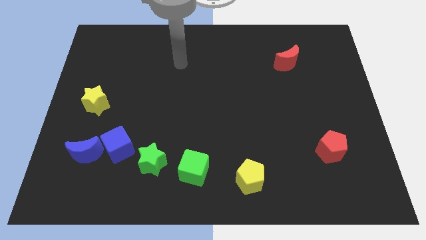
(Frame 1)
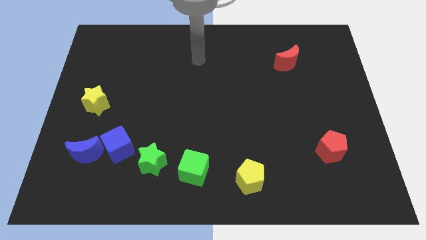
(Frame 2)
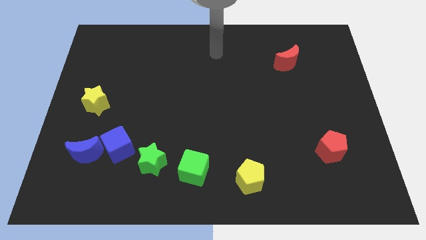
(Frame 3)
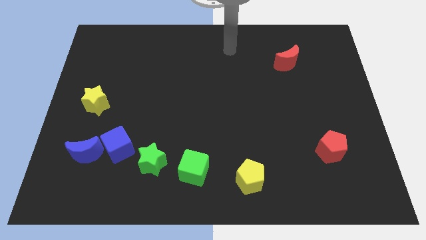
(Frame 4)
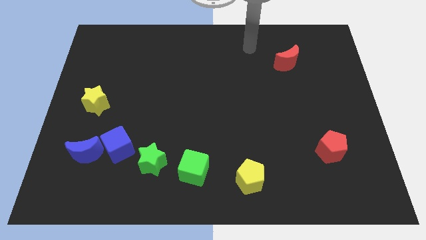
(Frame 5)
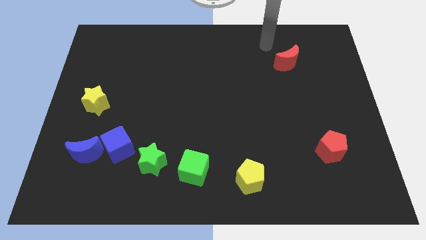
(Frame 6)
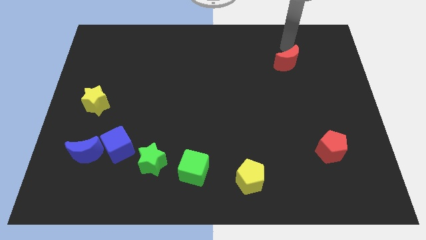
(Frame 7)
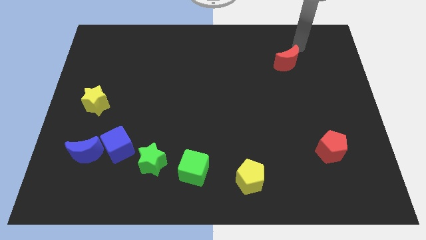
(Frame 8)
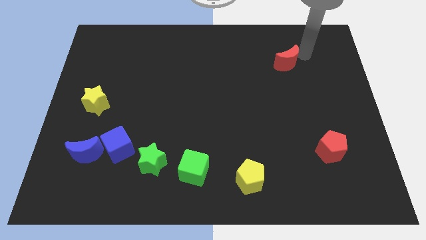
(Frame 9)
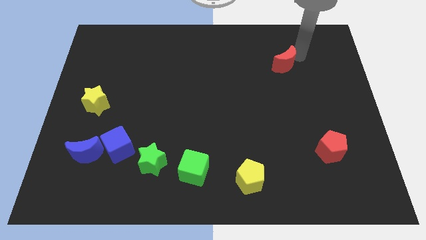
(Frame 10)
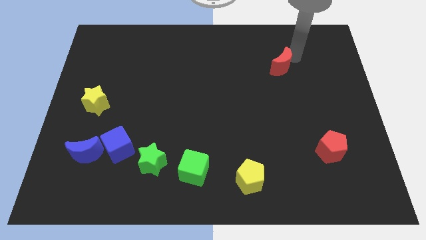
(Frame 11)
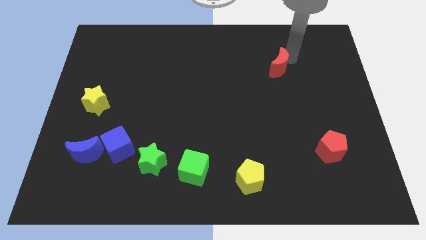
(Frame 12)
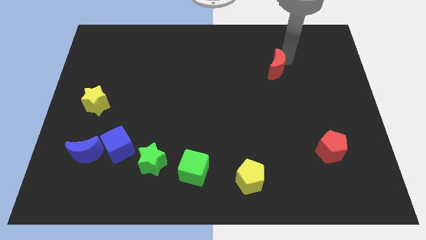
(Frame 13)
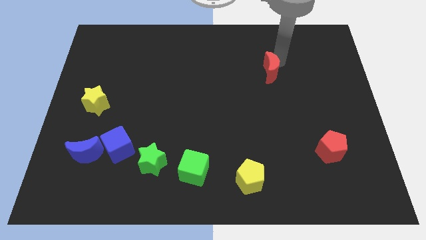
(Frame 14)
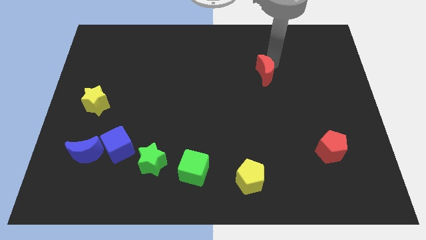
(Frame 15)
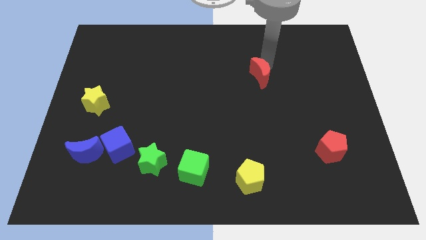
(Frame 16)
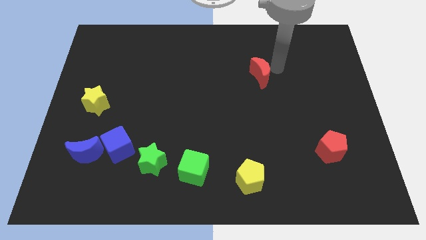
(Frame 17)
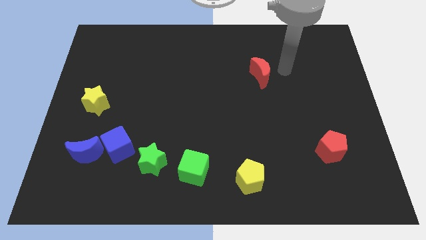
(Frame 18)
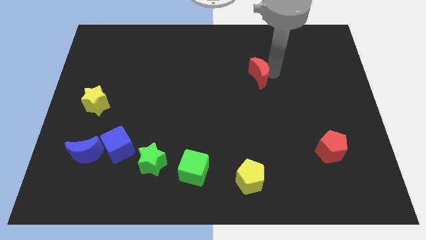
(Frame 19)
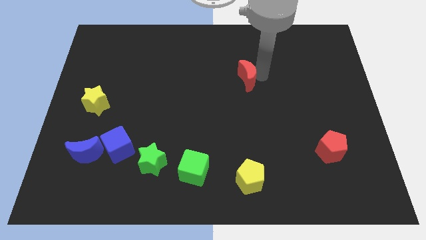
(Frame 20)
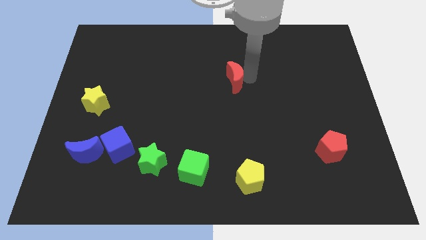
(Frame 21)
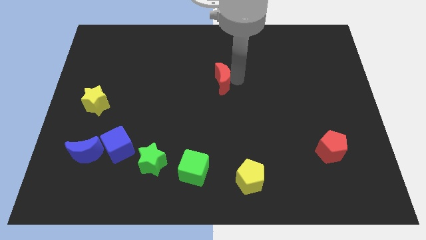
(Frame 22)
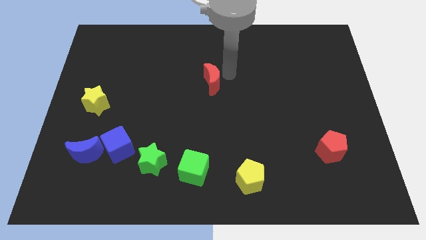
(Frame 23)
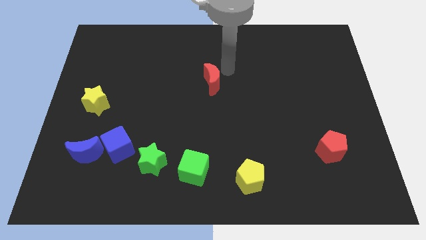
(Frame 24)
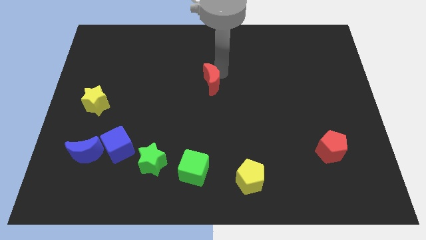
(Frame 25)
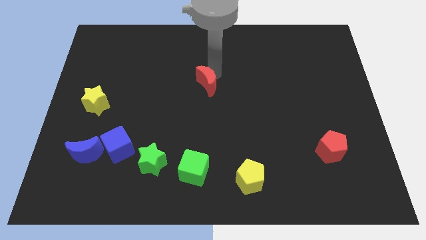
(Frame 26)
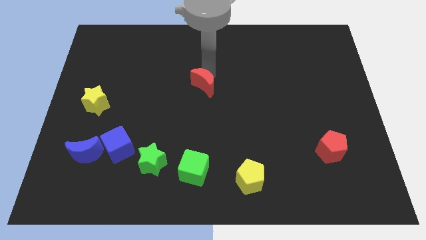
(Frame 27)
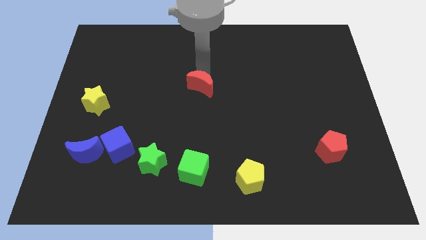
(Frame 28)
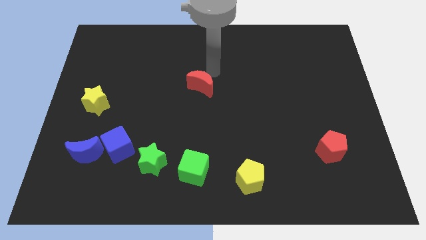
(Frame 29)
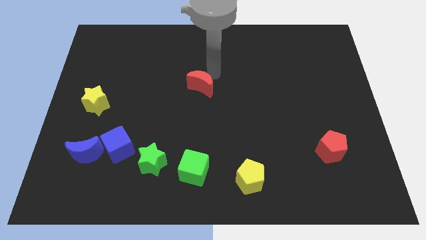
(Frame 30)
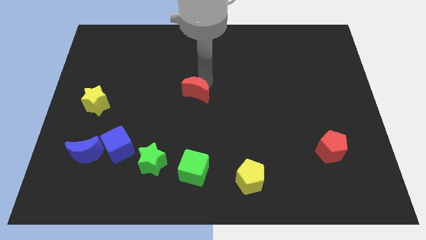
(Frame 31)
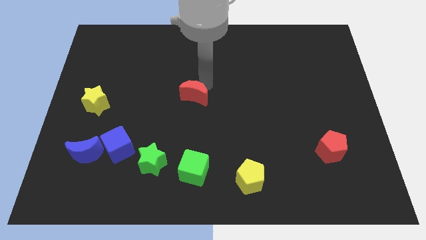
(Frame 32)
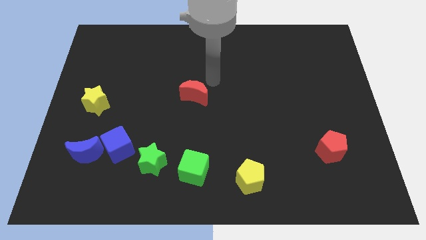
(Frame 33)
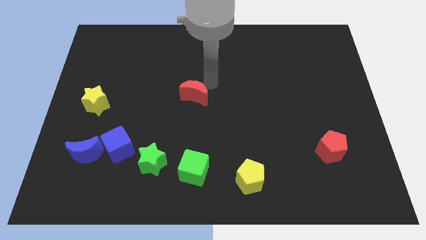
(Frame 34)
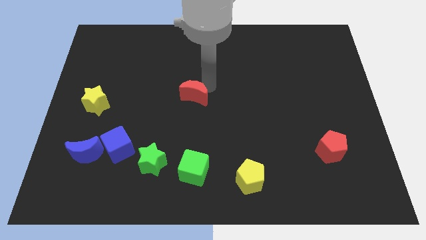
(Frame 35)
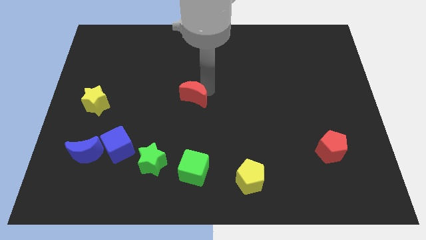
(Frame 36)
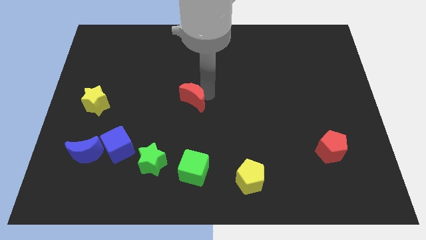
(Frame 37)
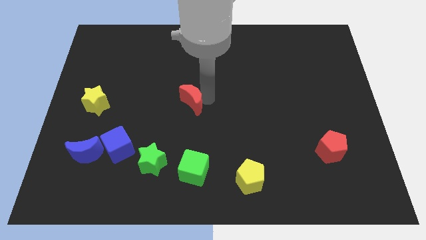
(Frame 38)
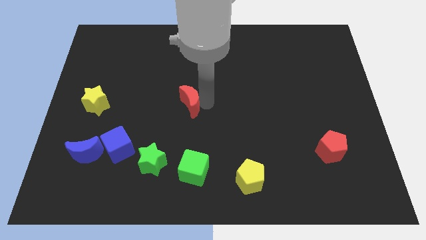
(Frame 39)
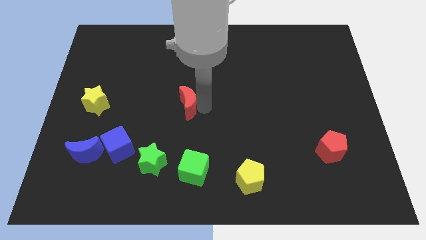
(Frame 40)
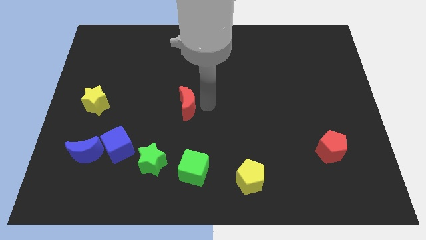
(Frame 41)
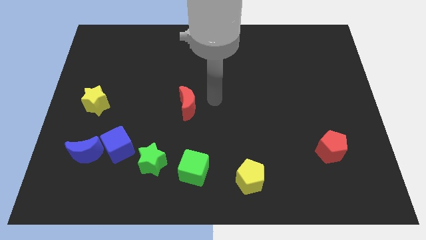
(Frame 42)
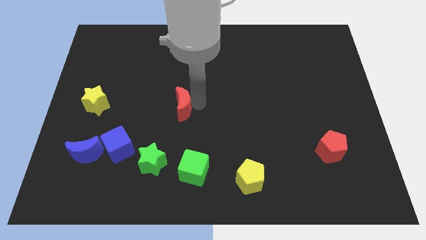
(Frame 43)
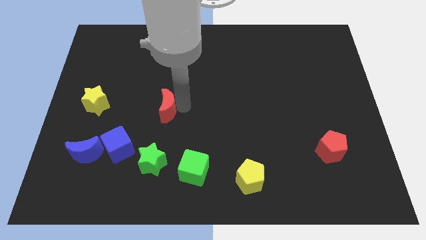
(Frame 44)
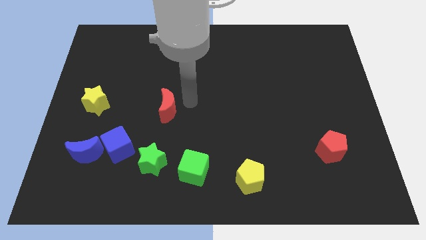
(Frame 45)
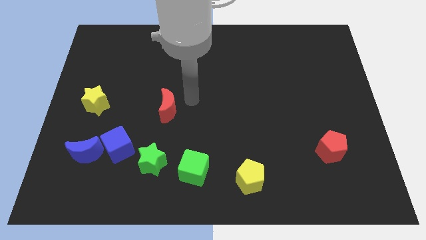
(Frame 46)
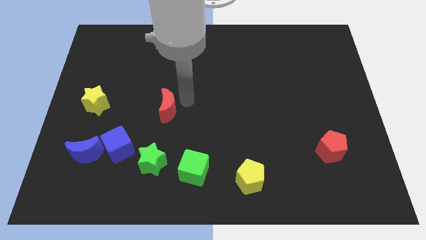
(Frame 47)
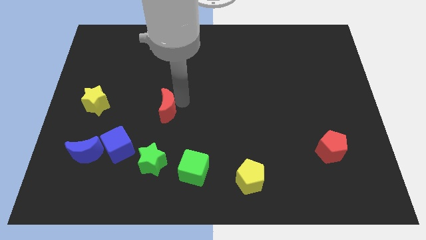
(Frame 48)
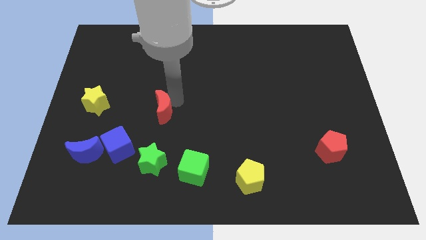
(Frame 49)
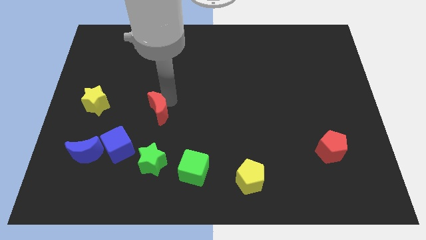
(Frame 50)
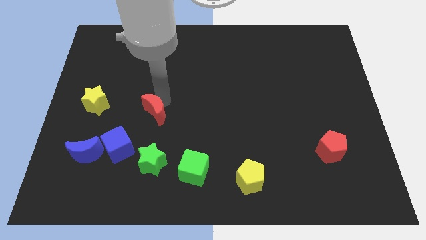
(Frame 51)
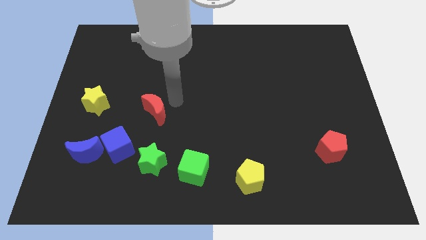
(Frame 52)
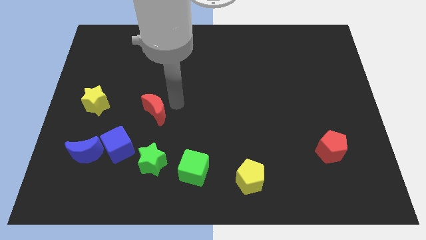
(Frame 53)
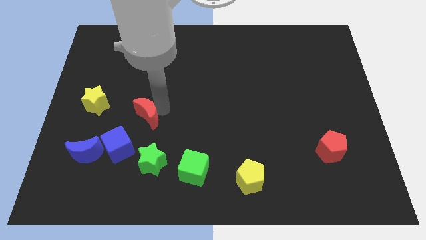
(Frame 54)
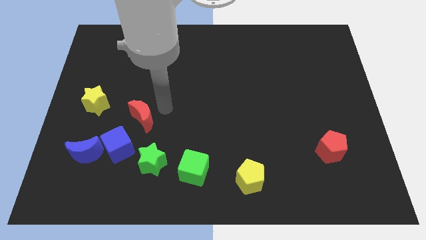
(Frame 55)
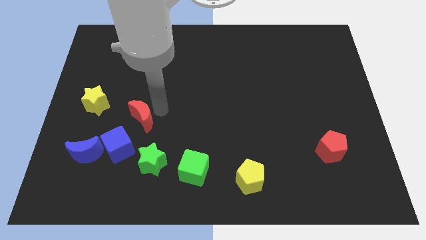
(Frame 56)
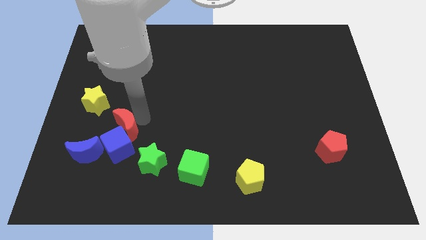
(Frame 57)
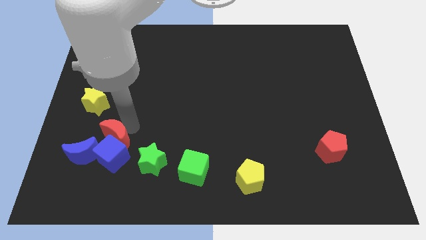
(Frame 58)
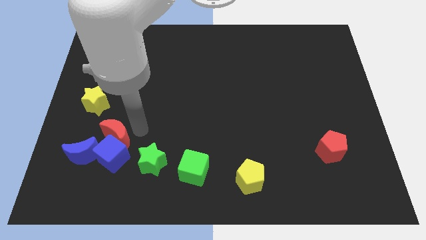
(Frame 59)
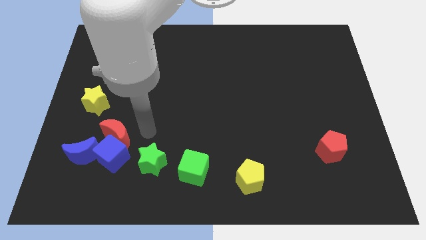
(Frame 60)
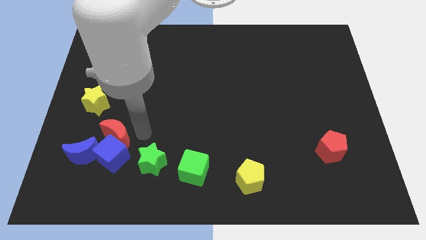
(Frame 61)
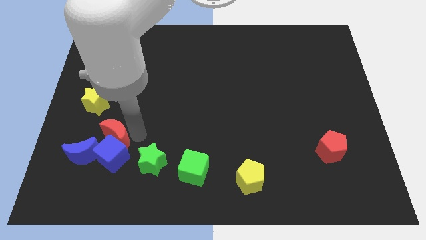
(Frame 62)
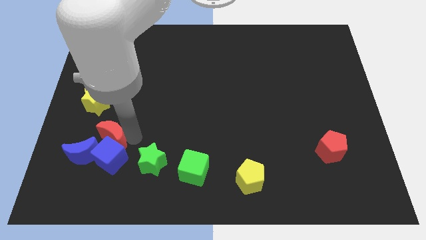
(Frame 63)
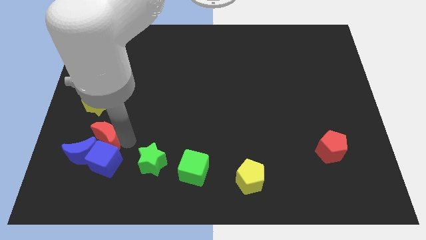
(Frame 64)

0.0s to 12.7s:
put the red moon close to the blue moon

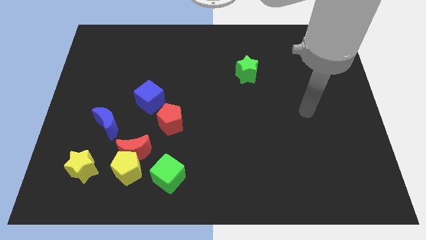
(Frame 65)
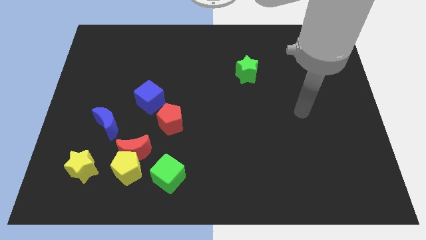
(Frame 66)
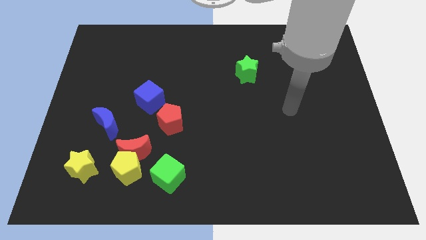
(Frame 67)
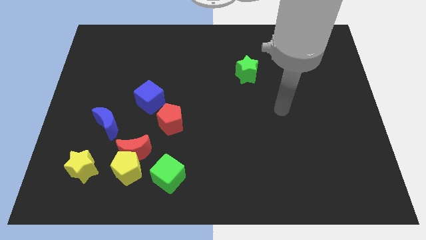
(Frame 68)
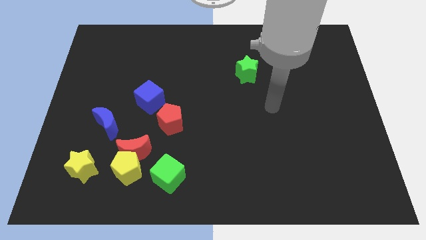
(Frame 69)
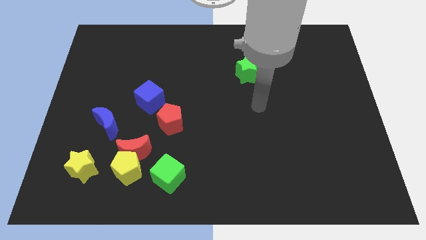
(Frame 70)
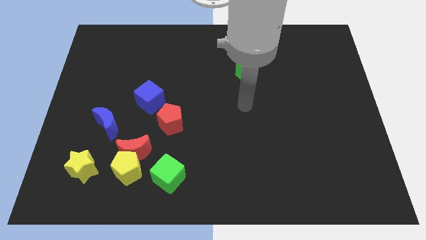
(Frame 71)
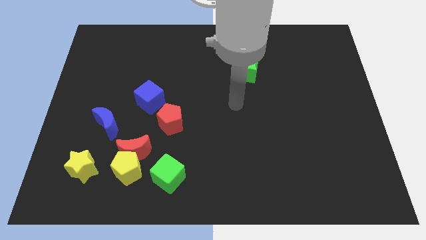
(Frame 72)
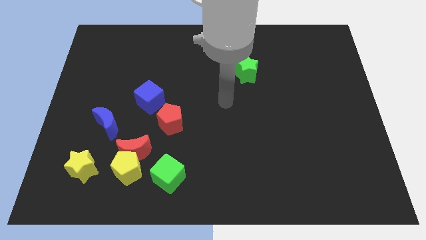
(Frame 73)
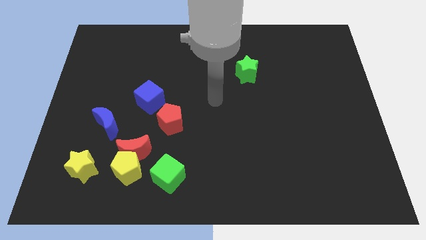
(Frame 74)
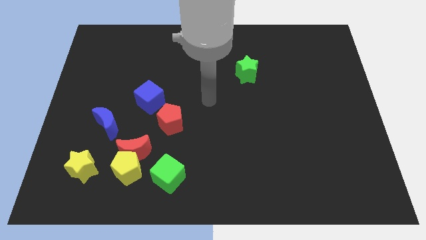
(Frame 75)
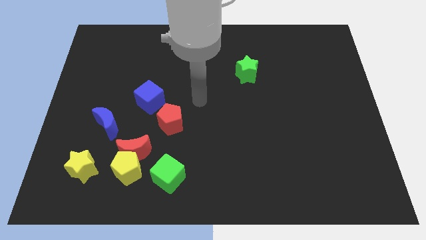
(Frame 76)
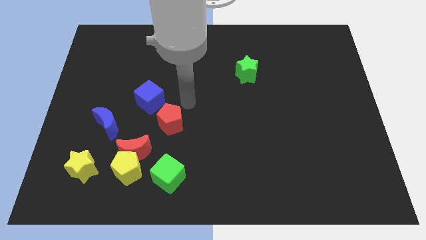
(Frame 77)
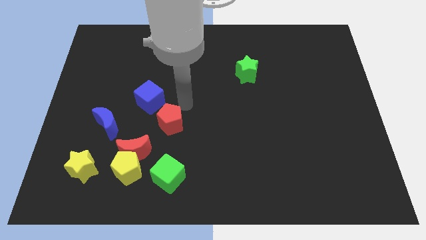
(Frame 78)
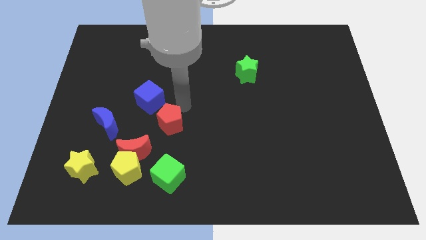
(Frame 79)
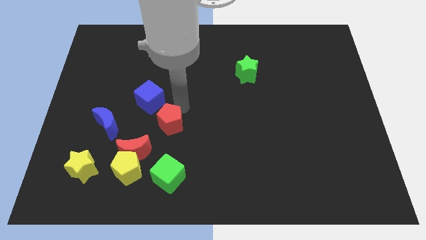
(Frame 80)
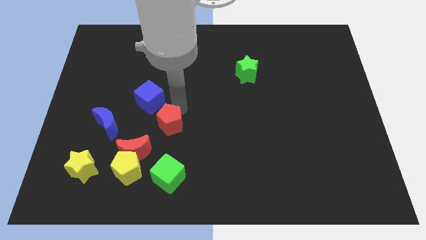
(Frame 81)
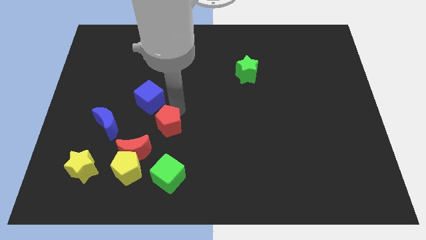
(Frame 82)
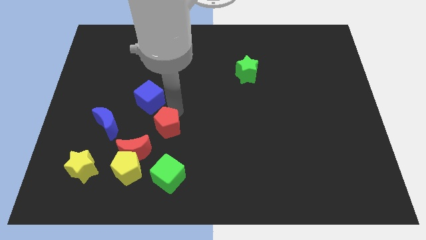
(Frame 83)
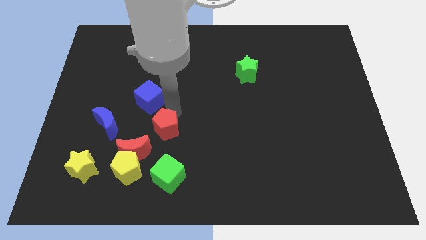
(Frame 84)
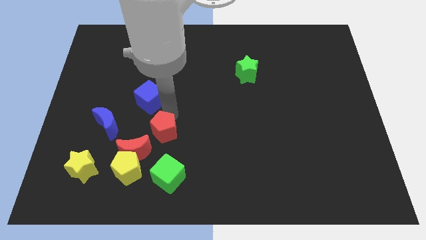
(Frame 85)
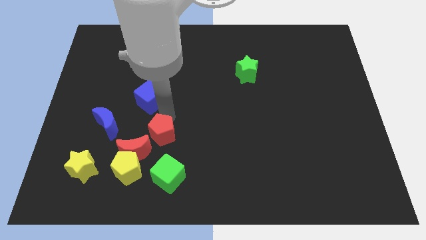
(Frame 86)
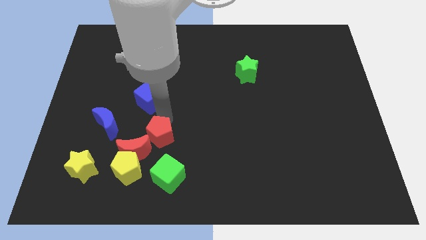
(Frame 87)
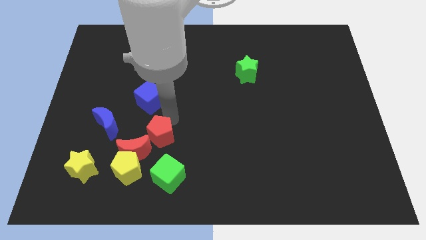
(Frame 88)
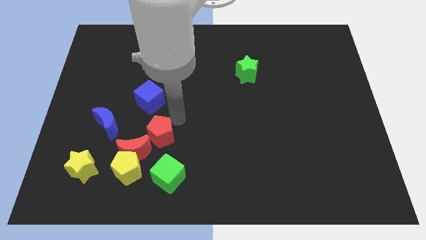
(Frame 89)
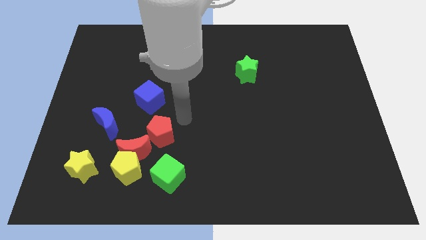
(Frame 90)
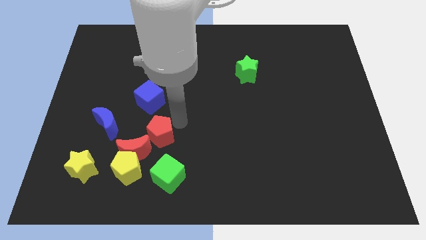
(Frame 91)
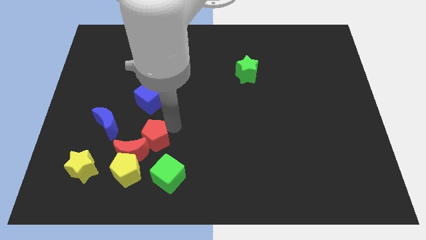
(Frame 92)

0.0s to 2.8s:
push the red pentagon next to the red moon
